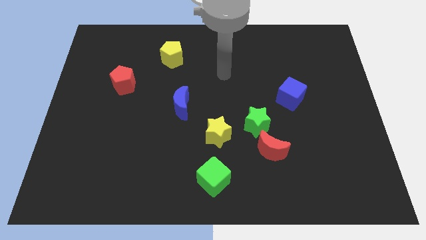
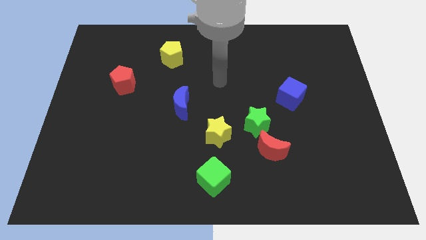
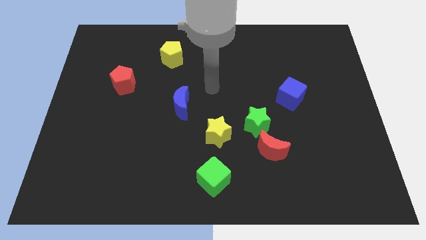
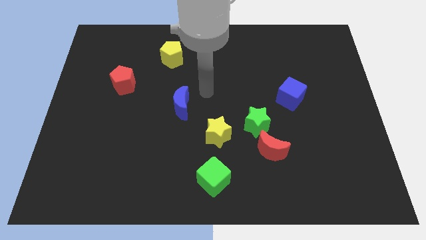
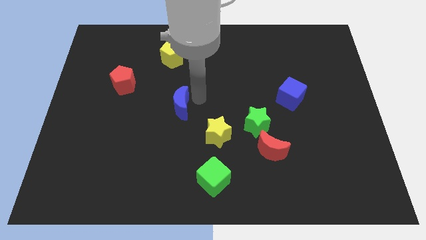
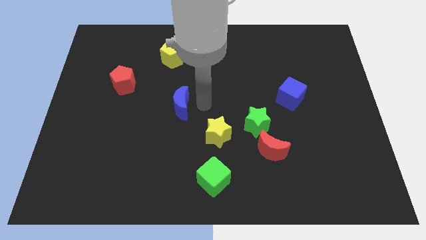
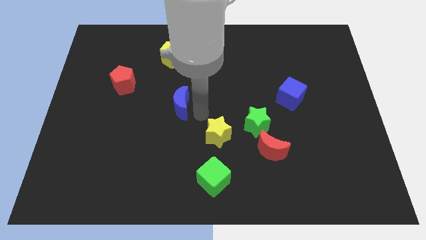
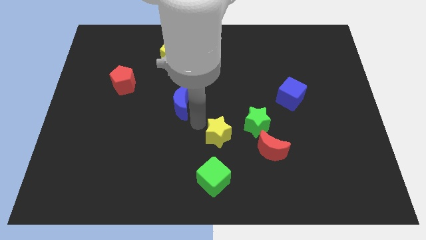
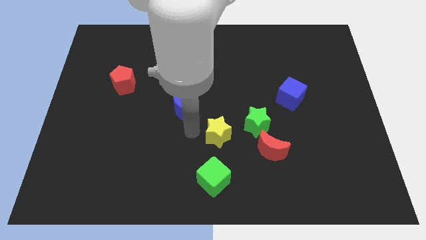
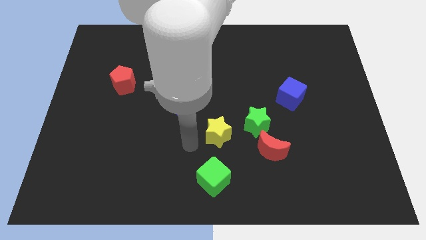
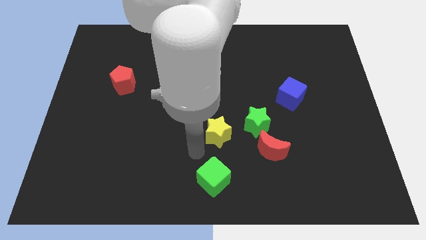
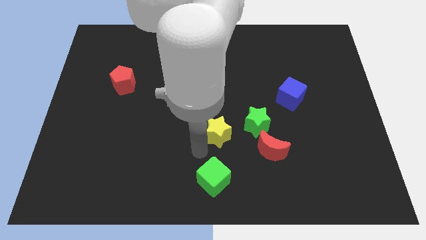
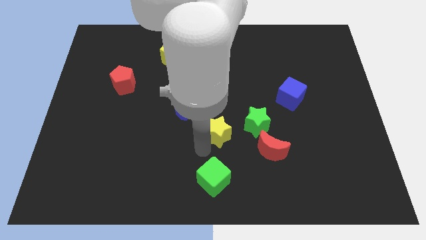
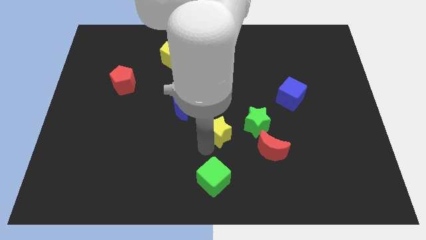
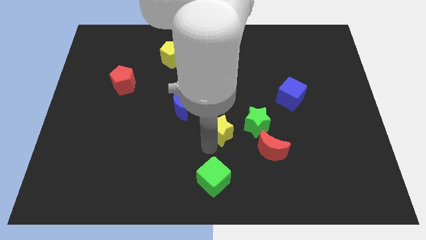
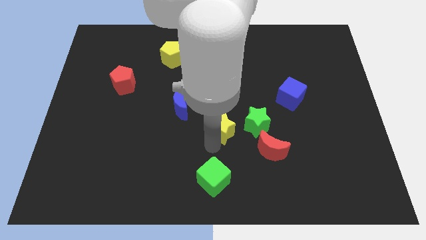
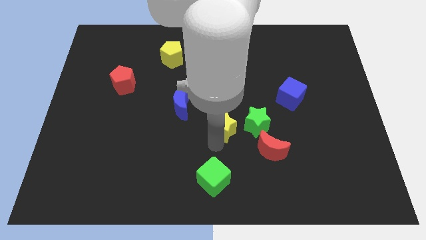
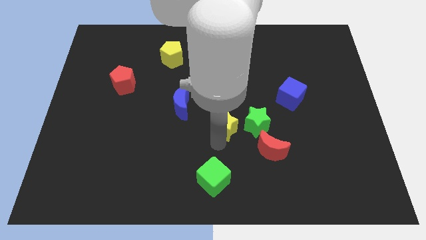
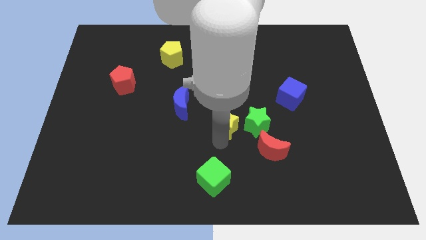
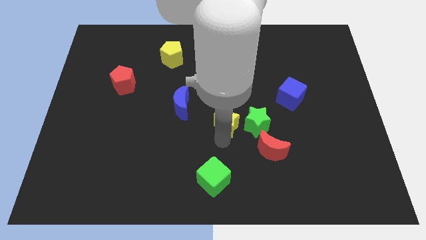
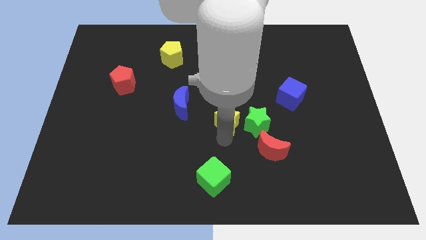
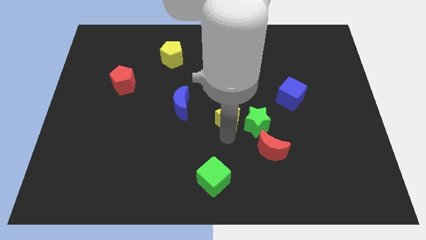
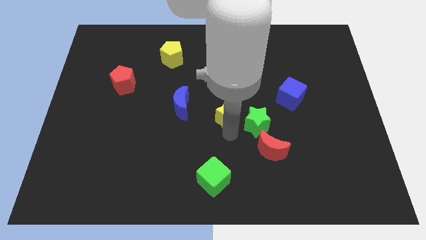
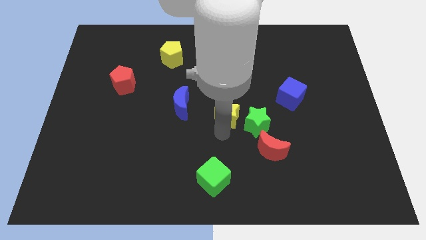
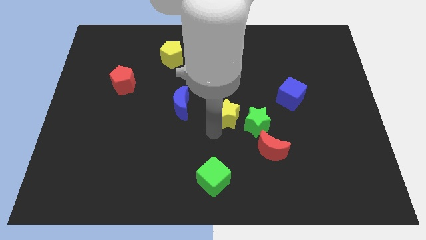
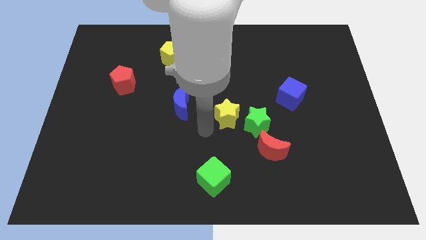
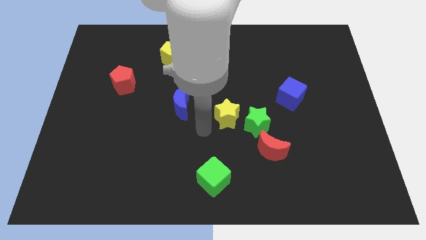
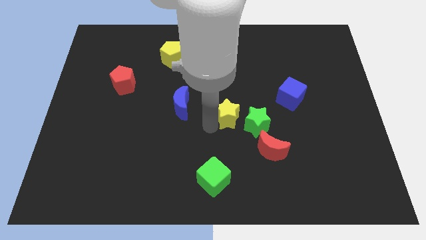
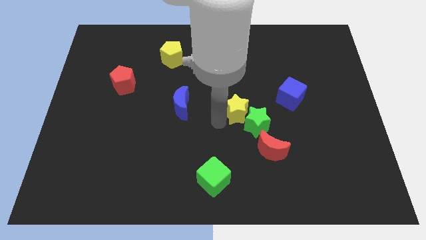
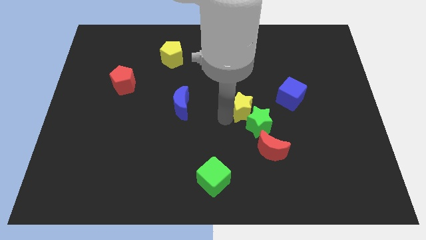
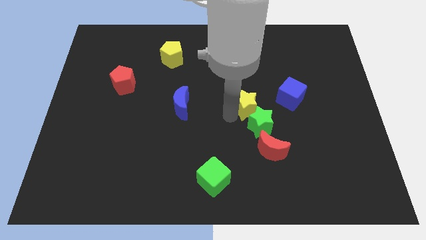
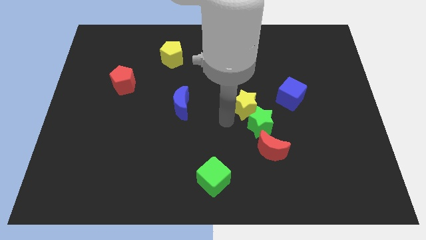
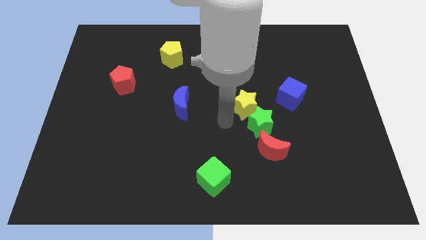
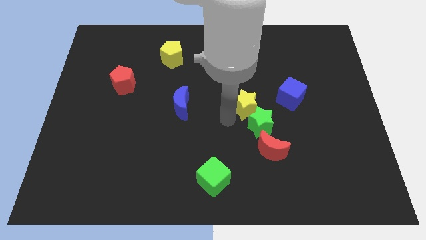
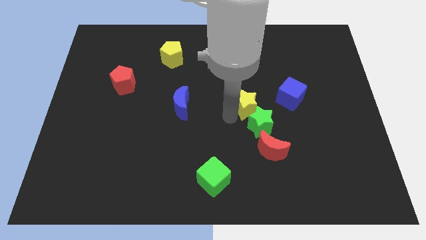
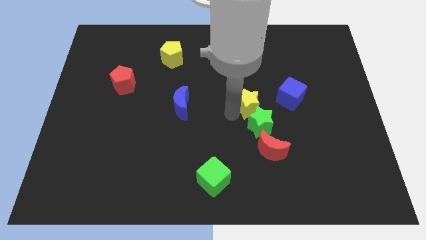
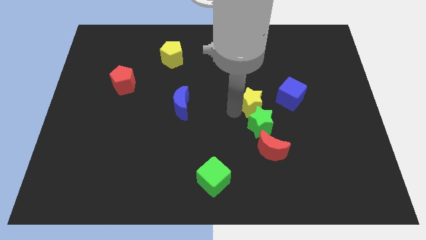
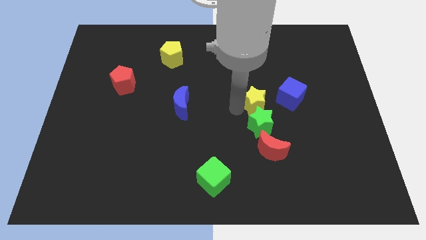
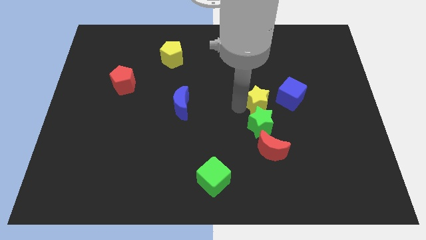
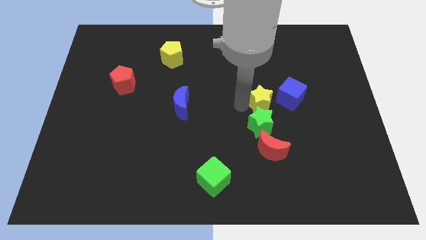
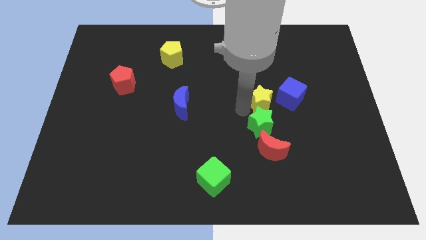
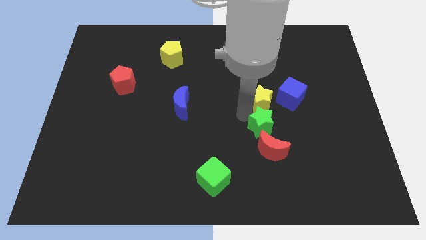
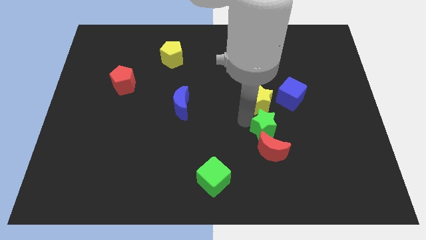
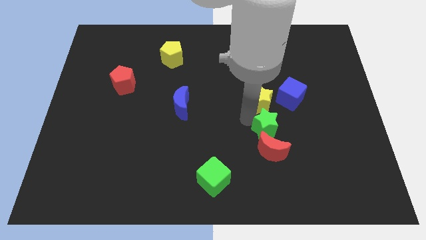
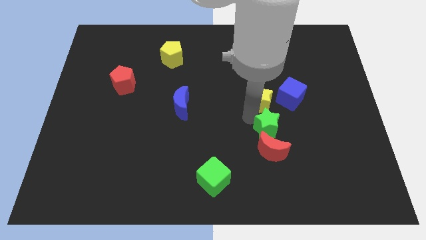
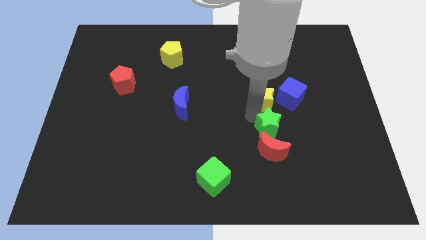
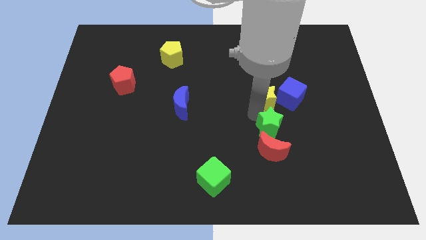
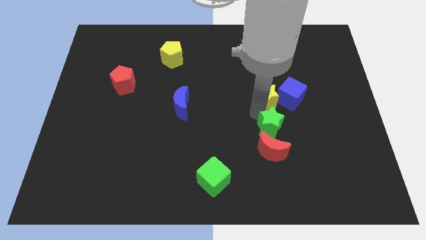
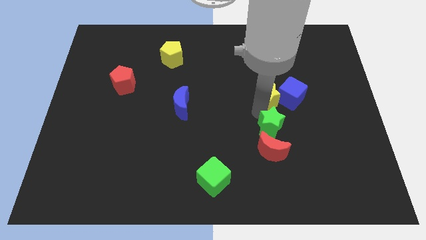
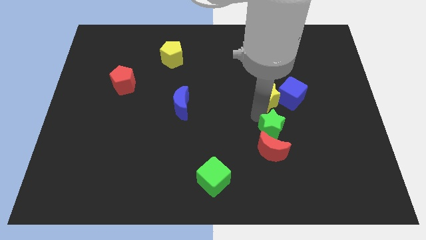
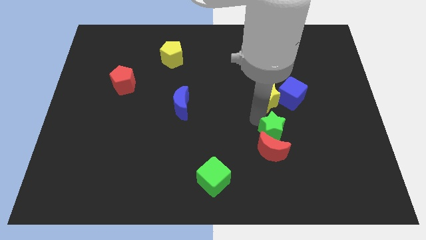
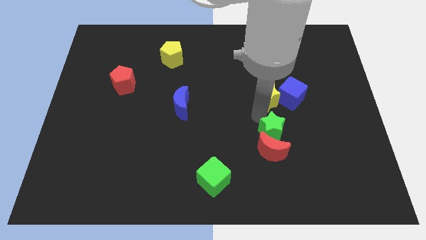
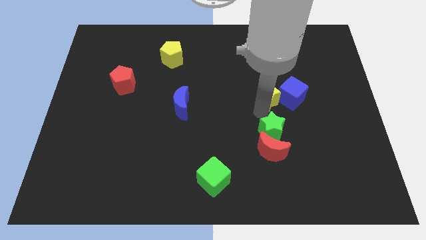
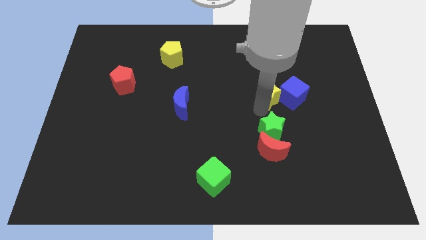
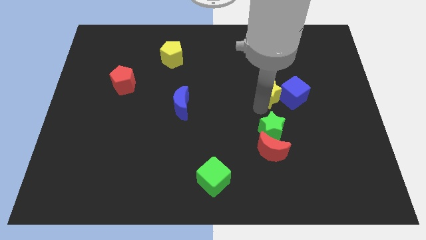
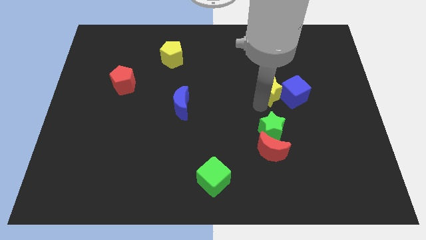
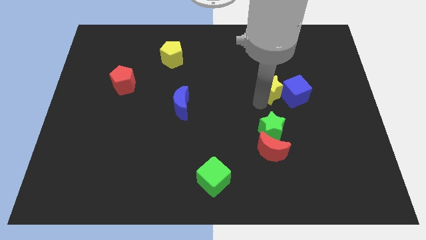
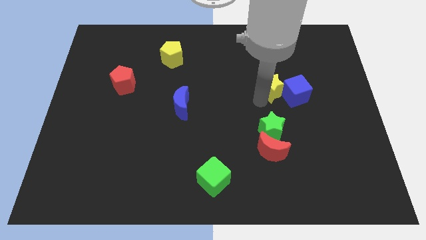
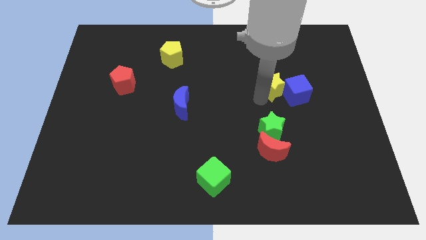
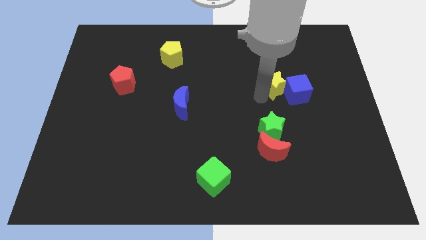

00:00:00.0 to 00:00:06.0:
push the yellow star upwards and right

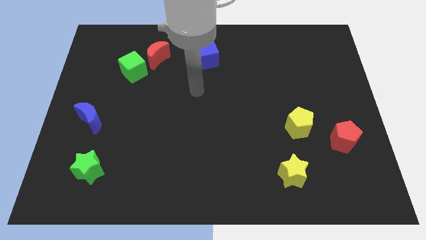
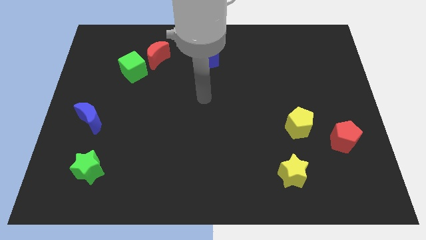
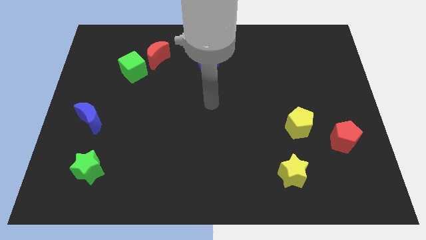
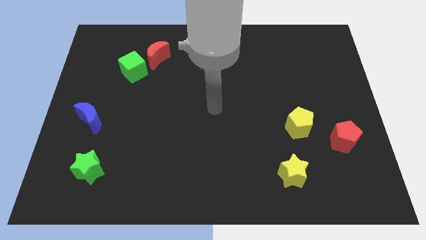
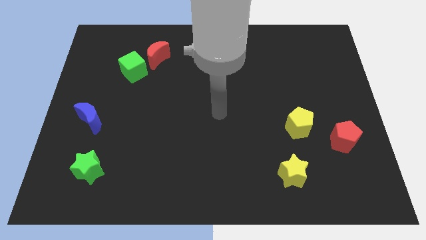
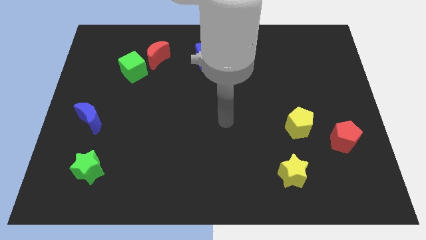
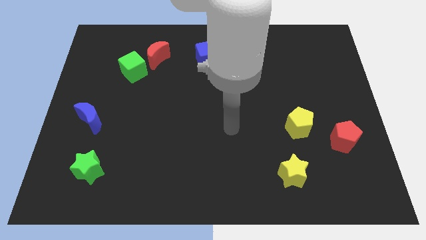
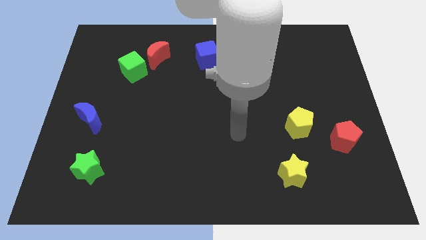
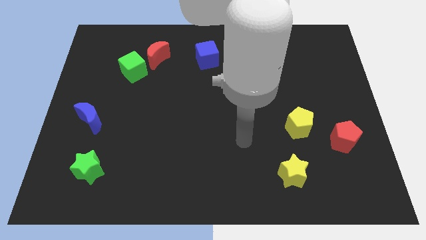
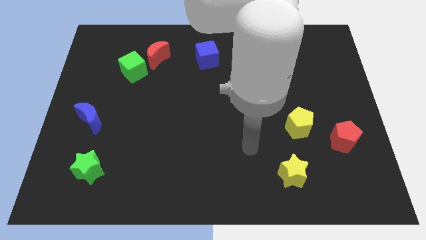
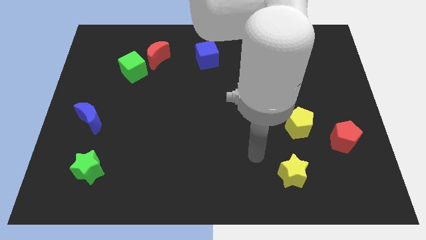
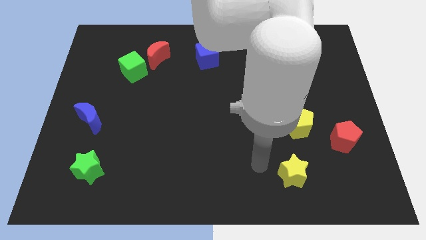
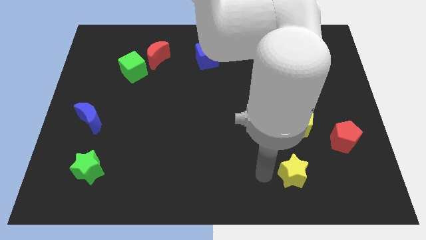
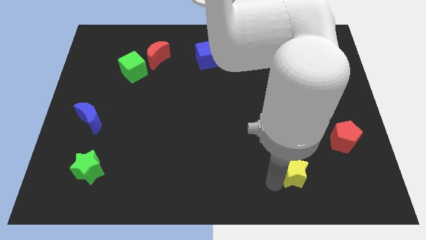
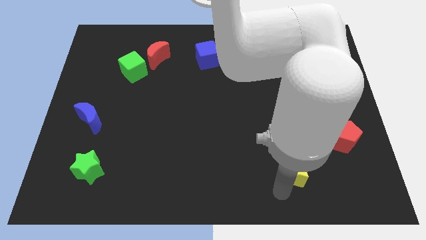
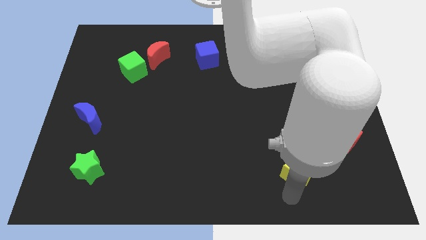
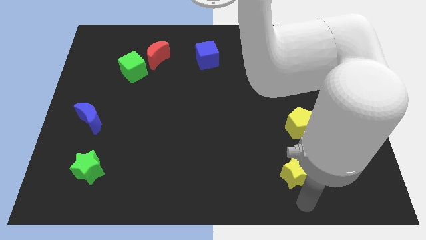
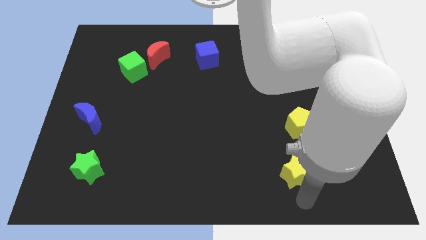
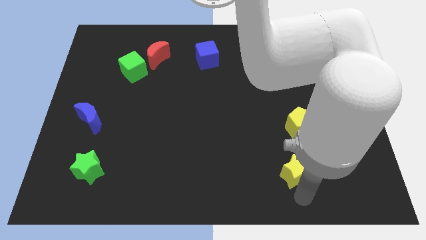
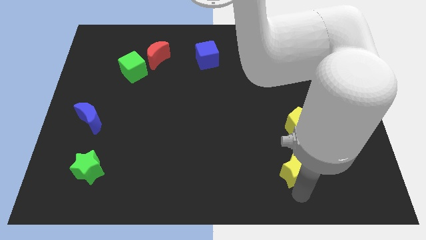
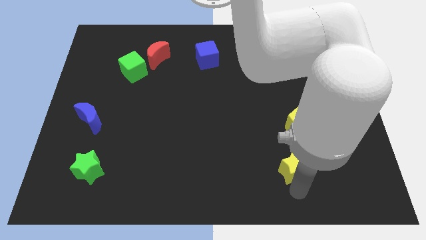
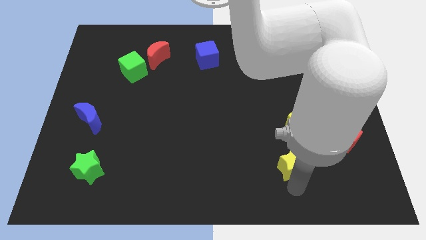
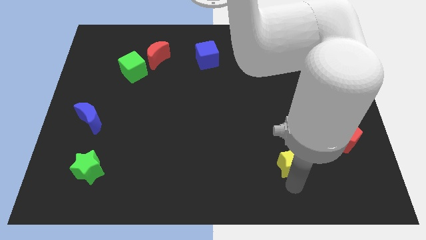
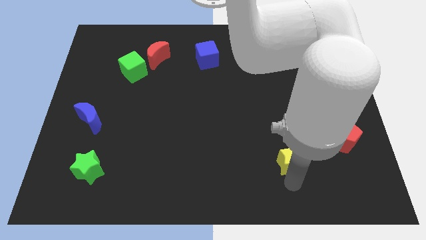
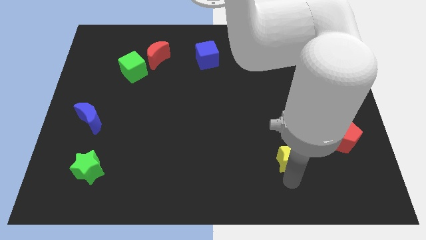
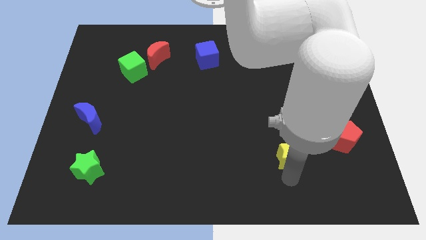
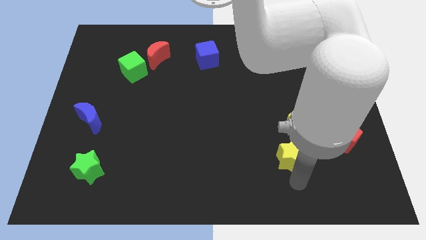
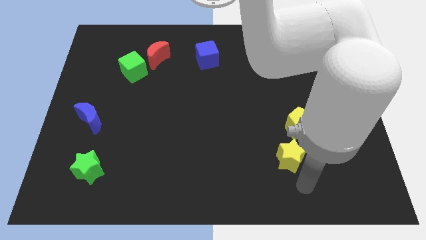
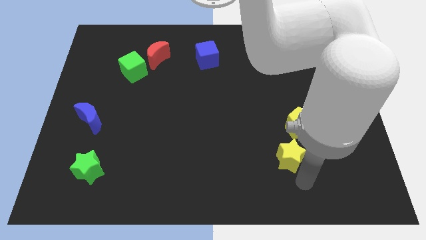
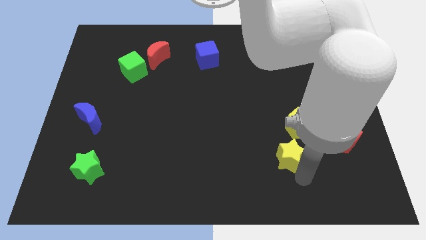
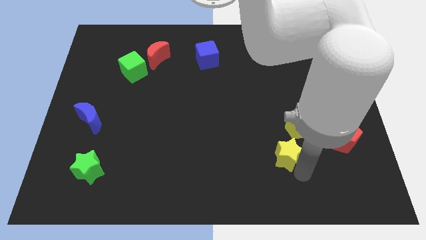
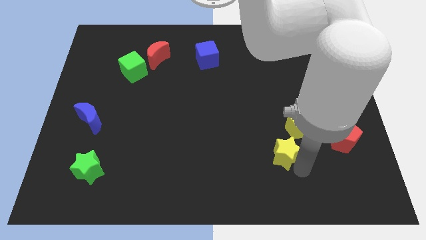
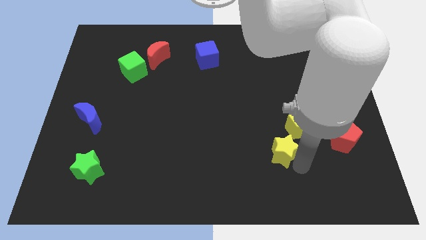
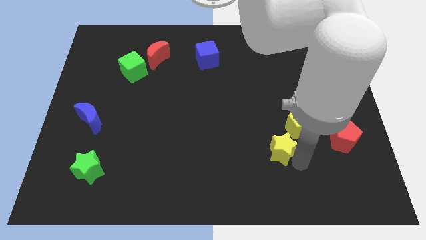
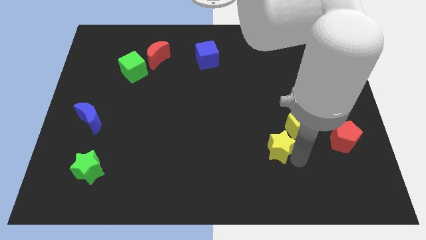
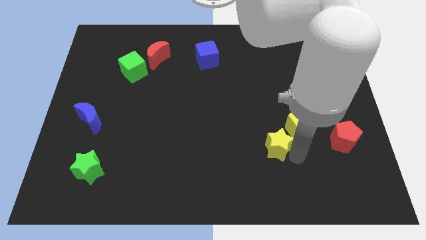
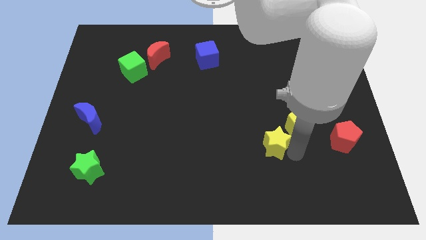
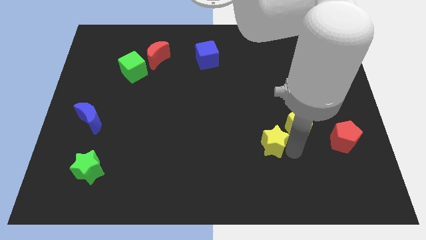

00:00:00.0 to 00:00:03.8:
move the yellow star a little bit up
